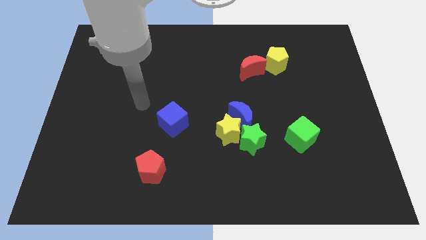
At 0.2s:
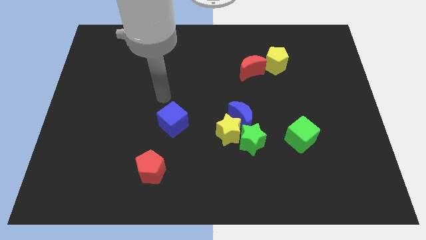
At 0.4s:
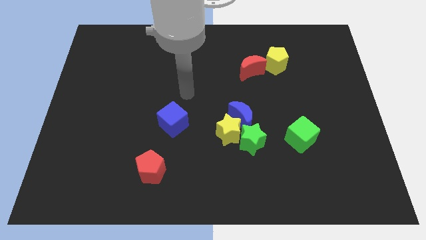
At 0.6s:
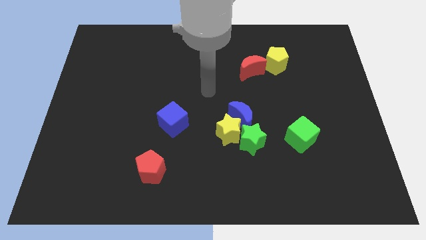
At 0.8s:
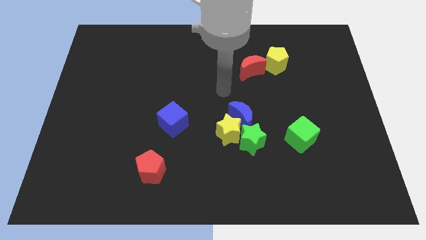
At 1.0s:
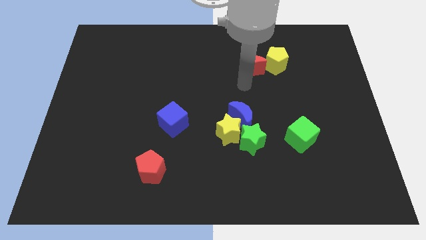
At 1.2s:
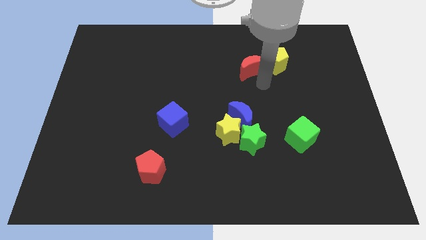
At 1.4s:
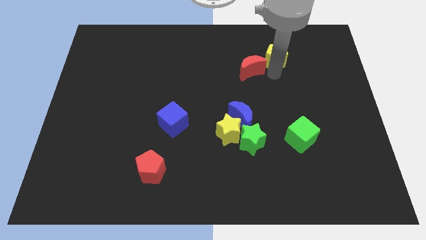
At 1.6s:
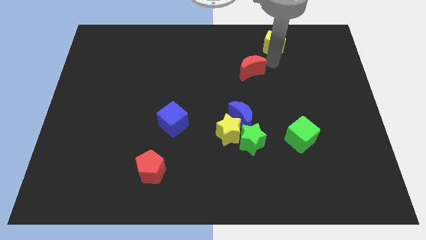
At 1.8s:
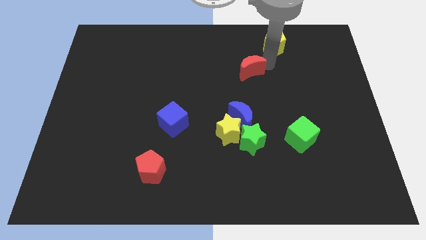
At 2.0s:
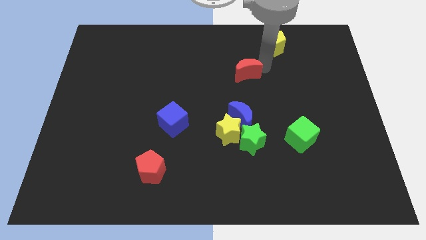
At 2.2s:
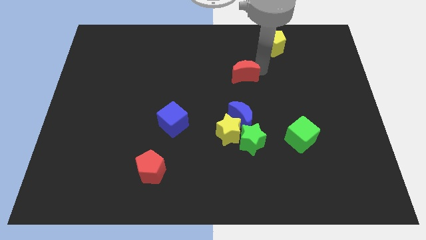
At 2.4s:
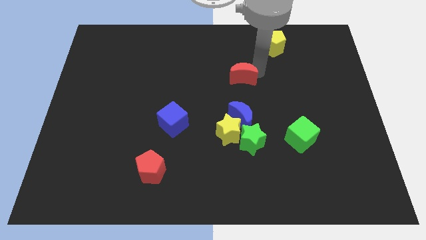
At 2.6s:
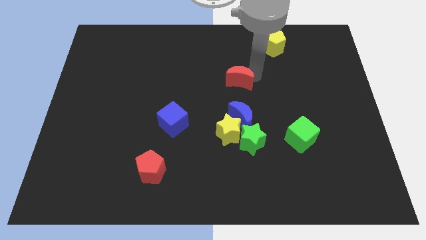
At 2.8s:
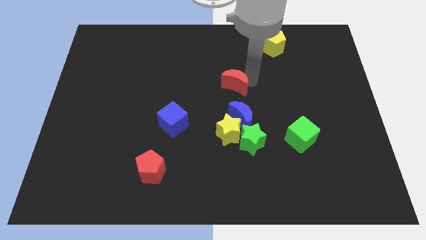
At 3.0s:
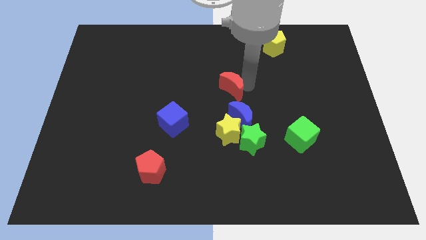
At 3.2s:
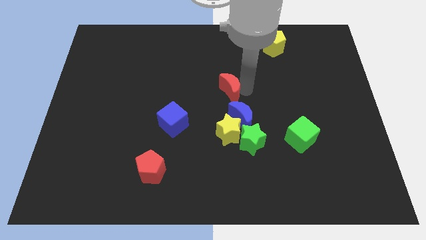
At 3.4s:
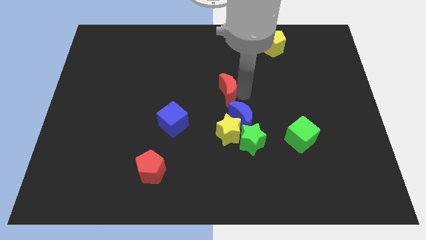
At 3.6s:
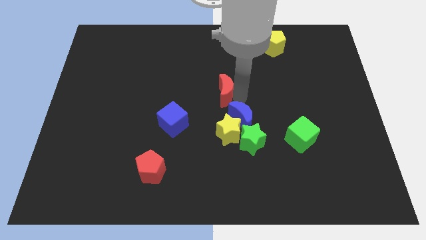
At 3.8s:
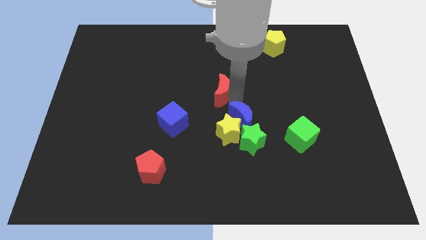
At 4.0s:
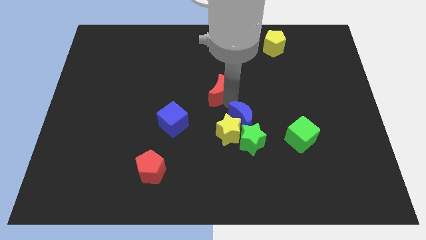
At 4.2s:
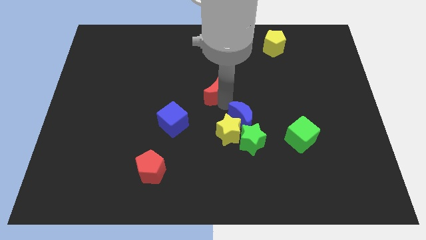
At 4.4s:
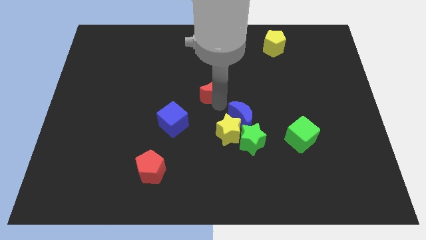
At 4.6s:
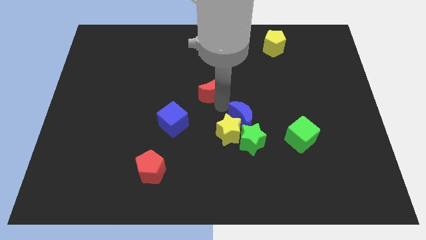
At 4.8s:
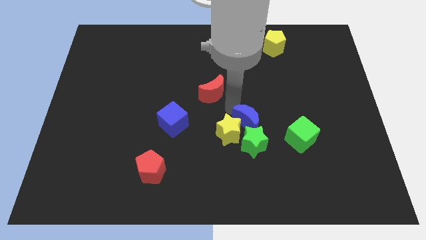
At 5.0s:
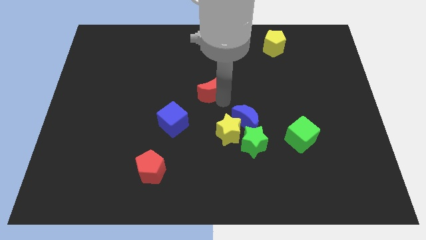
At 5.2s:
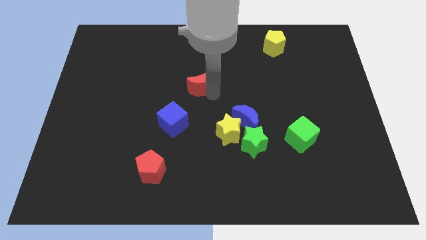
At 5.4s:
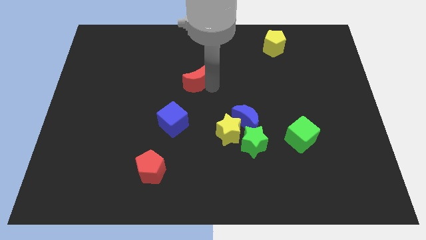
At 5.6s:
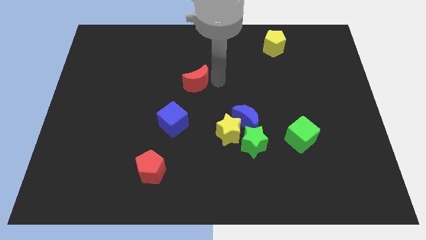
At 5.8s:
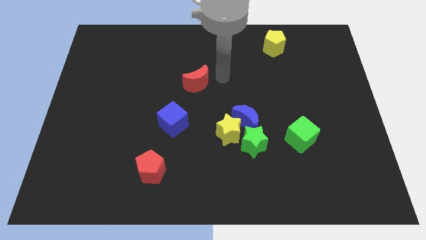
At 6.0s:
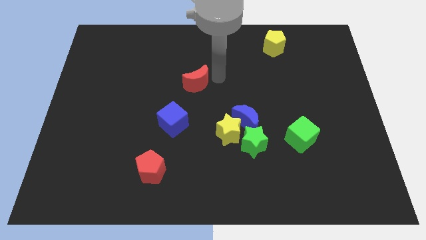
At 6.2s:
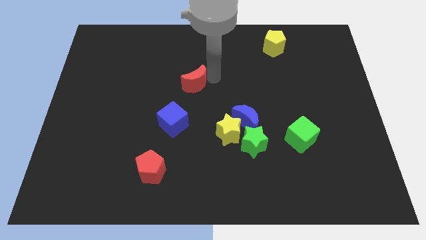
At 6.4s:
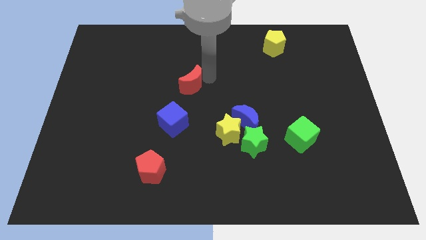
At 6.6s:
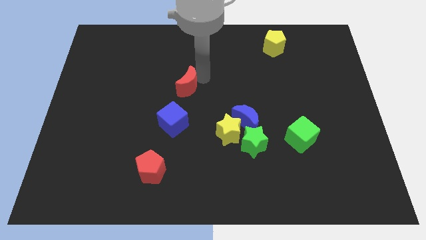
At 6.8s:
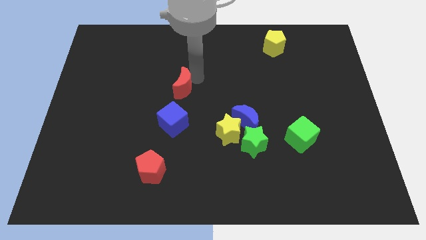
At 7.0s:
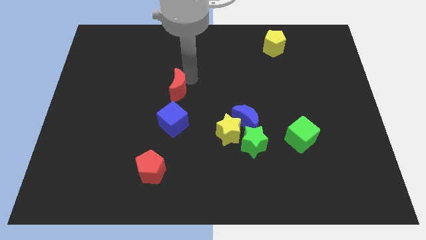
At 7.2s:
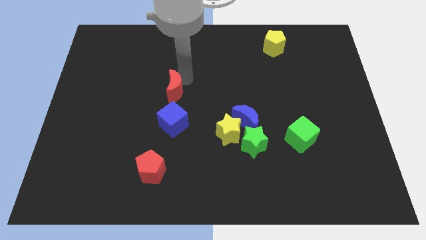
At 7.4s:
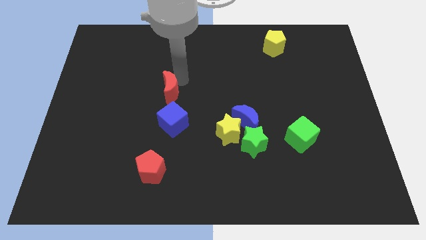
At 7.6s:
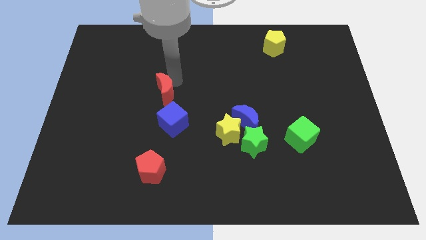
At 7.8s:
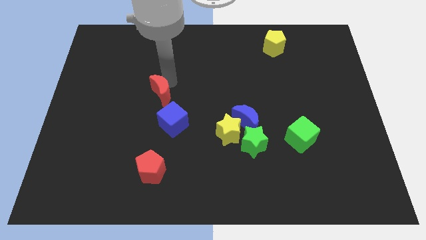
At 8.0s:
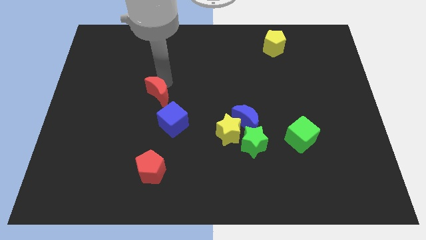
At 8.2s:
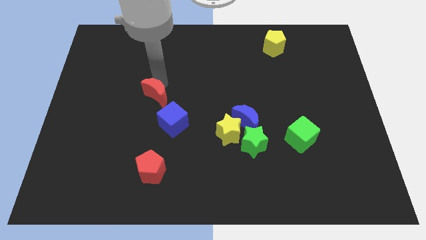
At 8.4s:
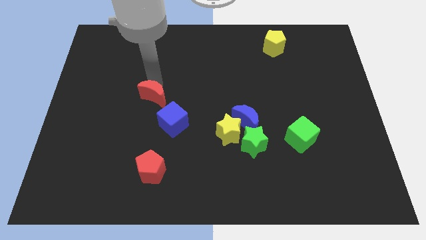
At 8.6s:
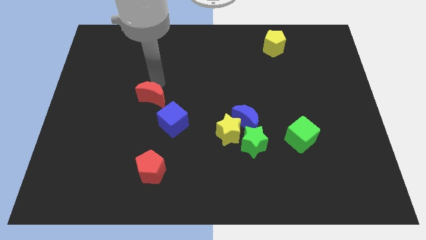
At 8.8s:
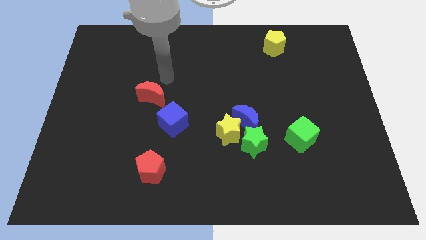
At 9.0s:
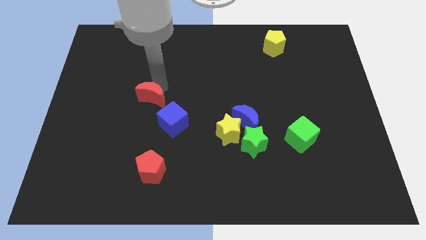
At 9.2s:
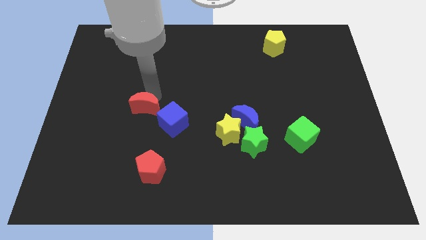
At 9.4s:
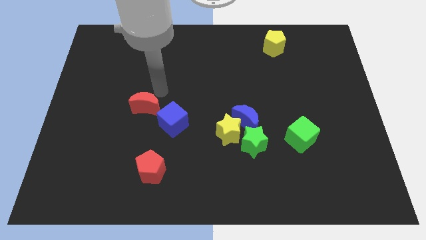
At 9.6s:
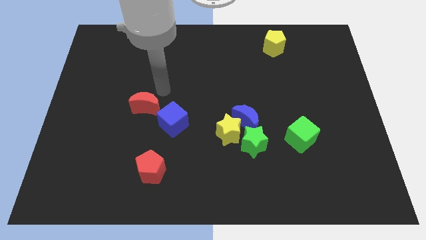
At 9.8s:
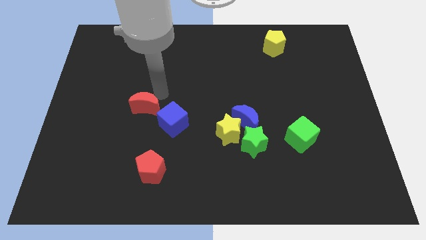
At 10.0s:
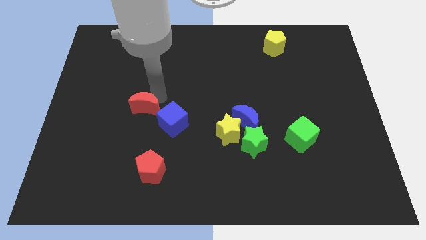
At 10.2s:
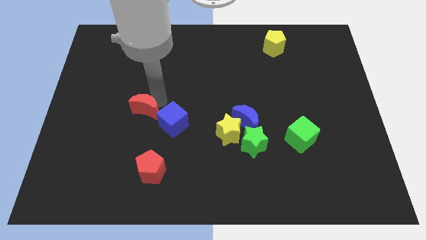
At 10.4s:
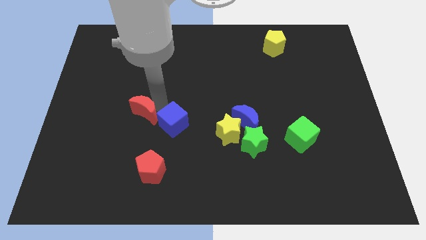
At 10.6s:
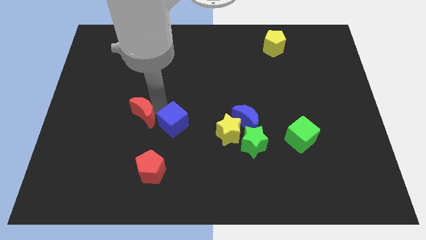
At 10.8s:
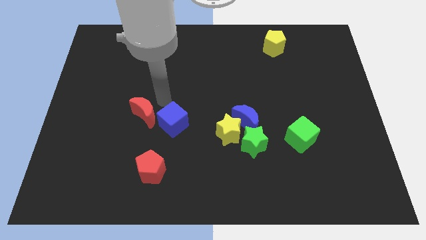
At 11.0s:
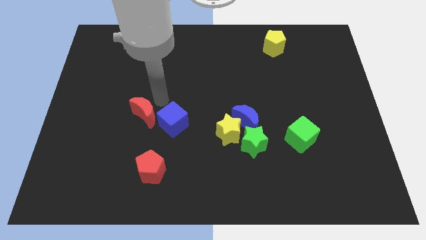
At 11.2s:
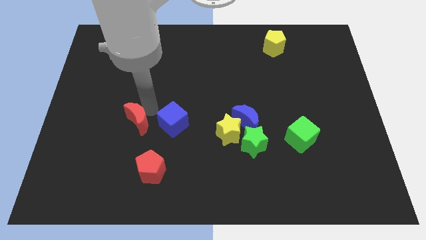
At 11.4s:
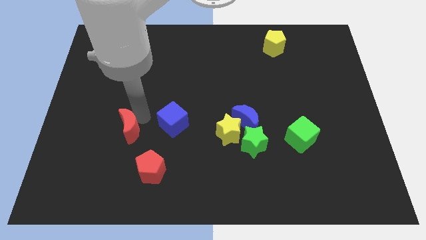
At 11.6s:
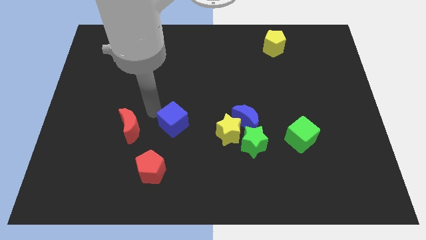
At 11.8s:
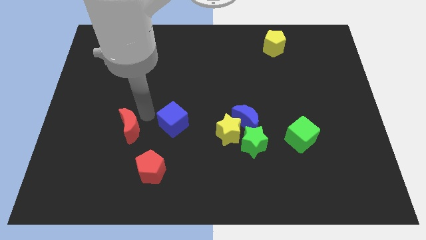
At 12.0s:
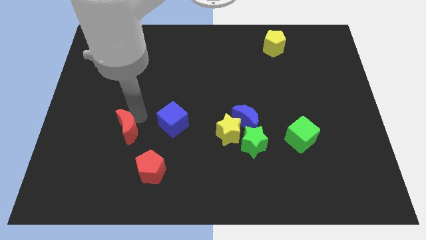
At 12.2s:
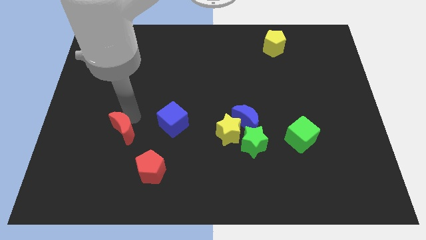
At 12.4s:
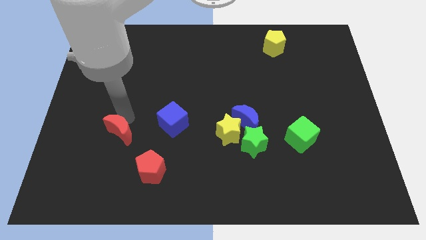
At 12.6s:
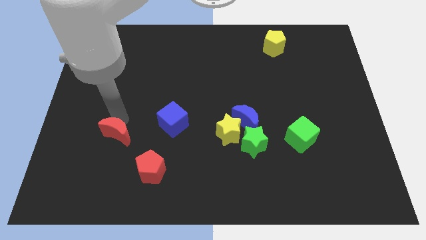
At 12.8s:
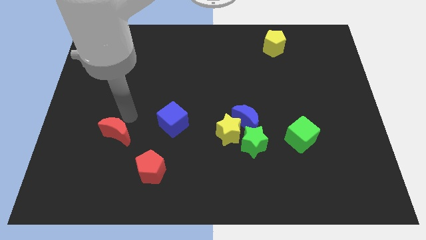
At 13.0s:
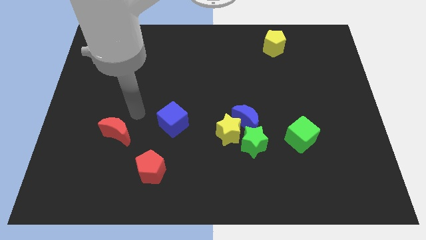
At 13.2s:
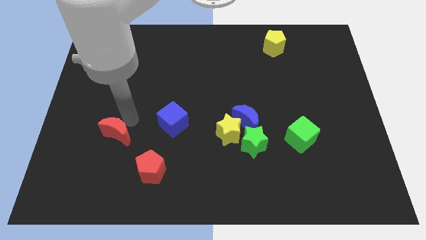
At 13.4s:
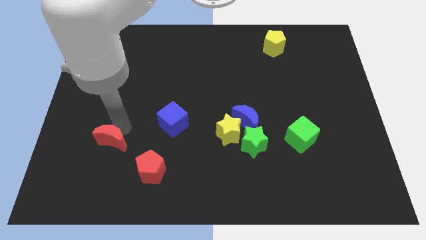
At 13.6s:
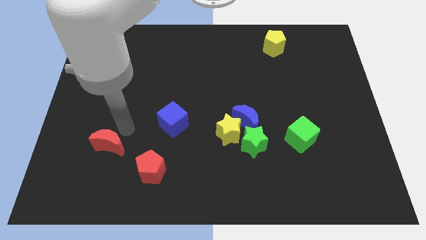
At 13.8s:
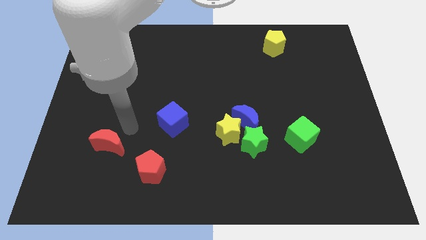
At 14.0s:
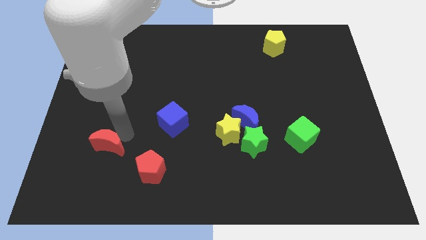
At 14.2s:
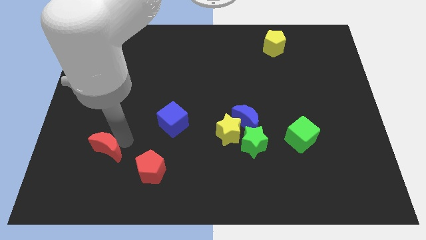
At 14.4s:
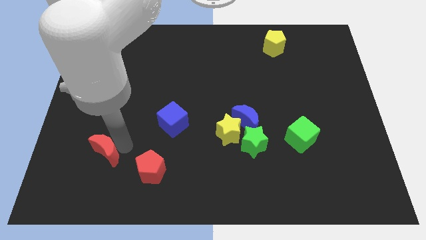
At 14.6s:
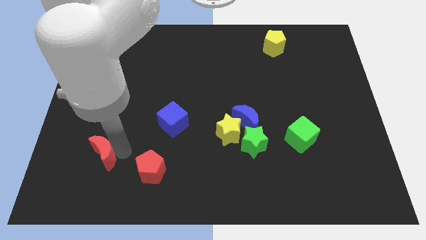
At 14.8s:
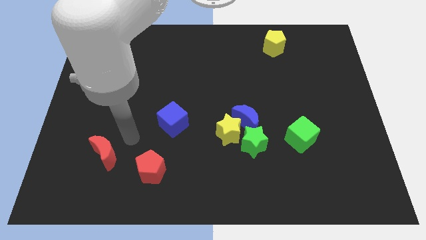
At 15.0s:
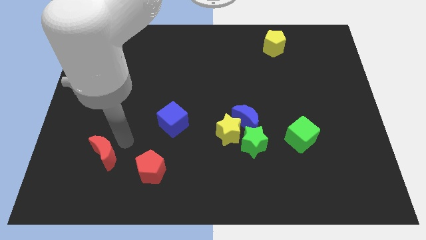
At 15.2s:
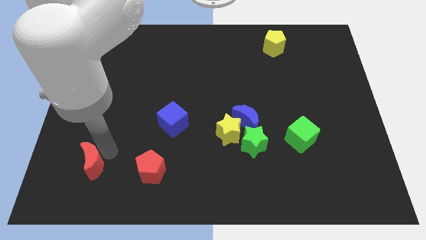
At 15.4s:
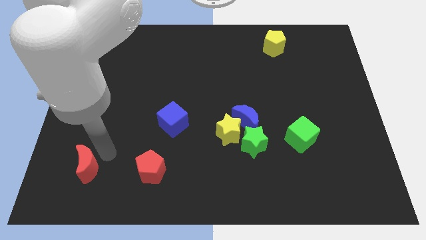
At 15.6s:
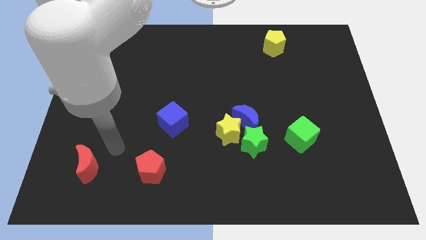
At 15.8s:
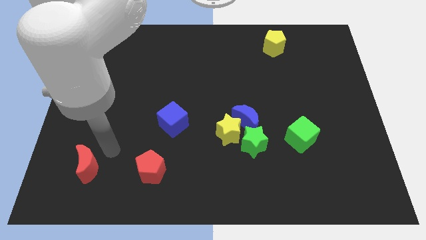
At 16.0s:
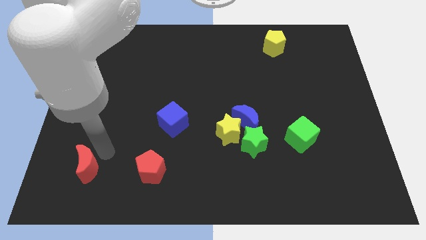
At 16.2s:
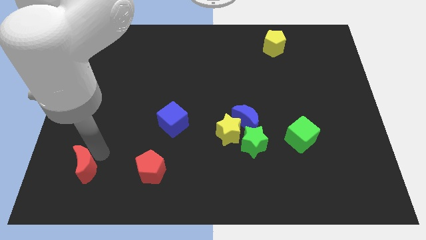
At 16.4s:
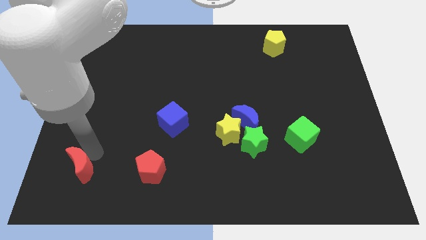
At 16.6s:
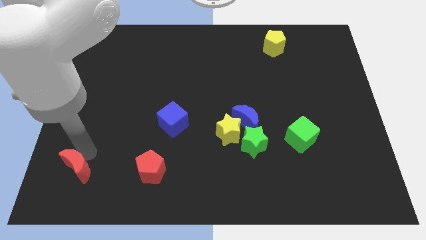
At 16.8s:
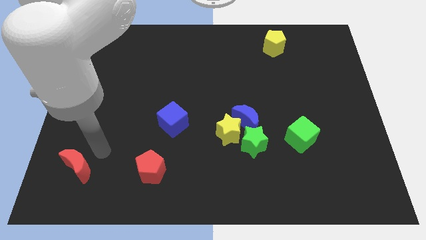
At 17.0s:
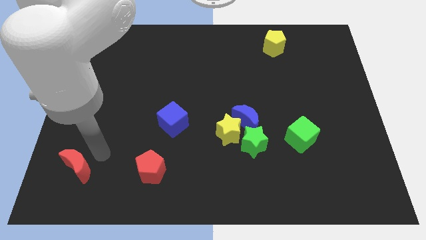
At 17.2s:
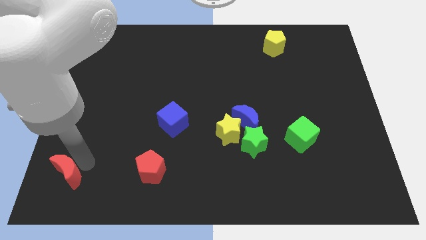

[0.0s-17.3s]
put the red moon to the bottom left corner
